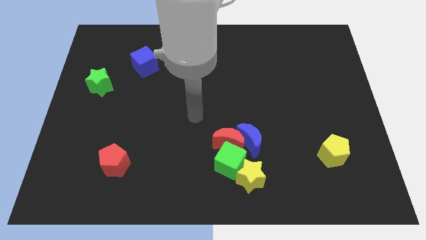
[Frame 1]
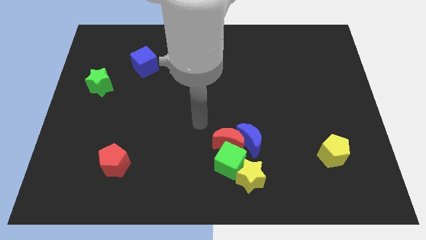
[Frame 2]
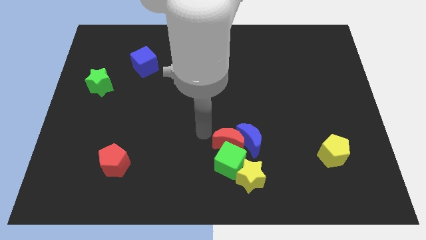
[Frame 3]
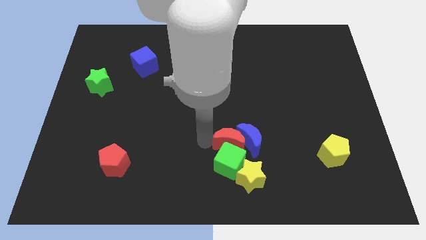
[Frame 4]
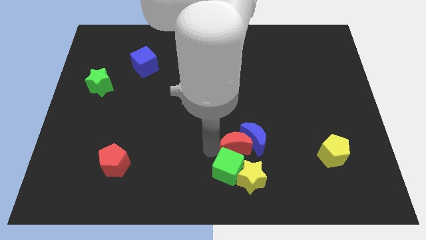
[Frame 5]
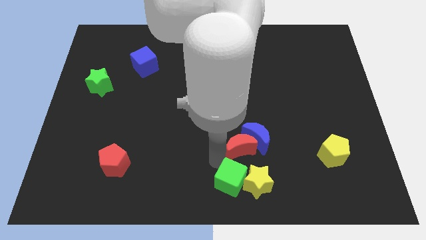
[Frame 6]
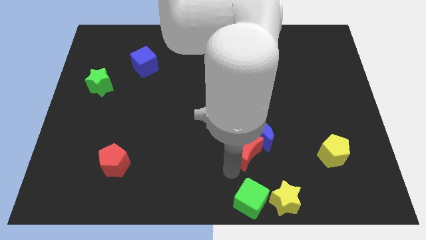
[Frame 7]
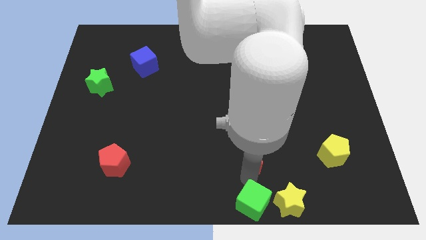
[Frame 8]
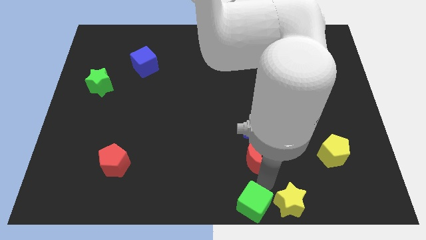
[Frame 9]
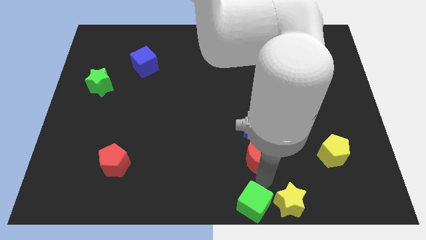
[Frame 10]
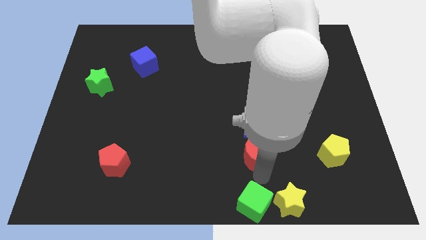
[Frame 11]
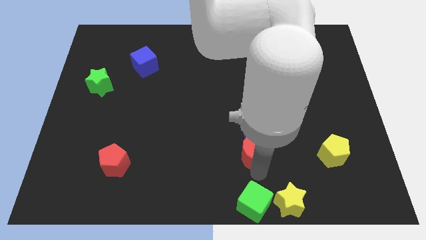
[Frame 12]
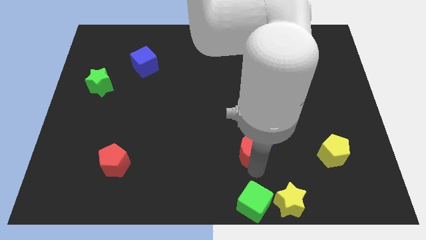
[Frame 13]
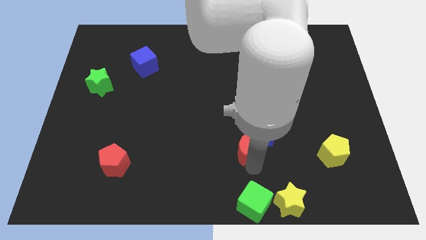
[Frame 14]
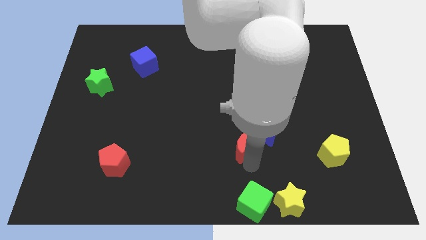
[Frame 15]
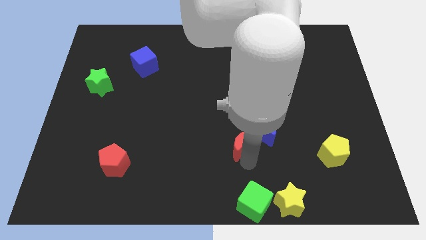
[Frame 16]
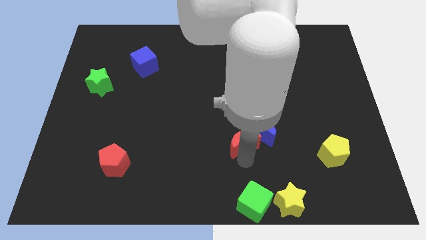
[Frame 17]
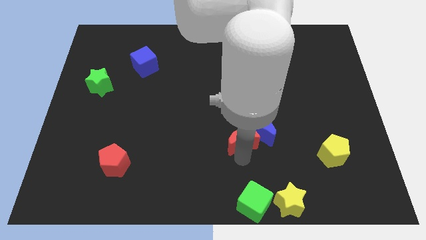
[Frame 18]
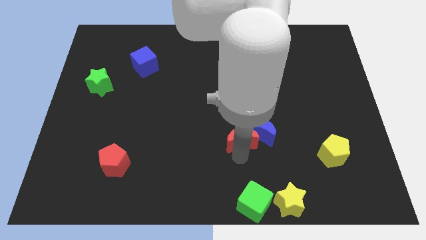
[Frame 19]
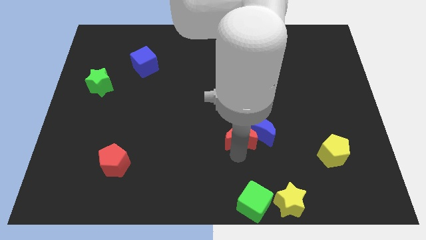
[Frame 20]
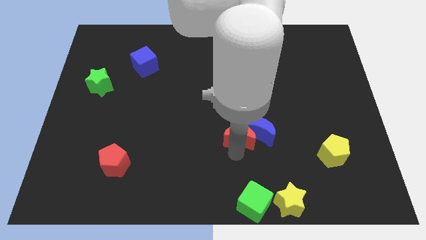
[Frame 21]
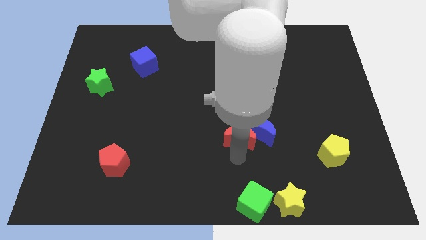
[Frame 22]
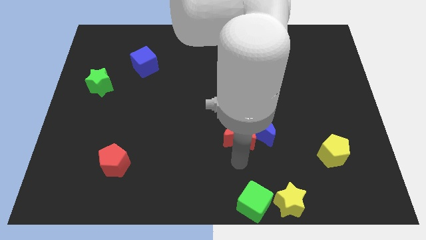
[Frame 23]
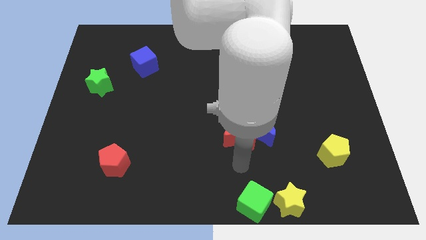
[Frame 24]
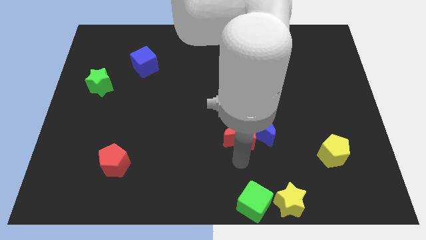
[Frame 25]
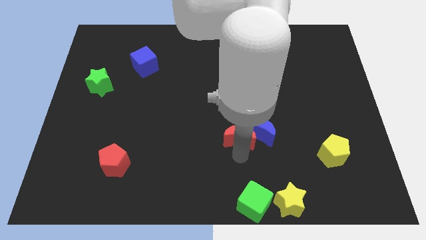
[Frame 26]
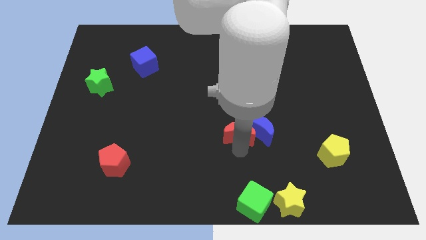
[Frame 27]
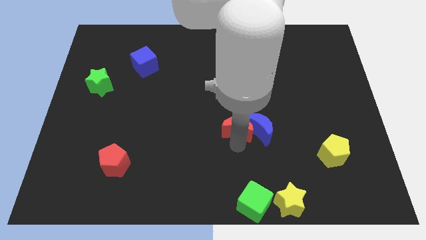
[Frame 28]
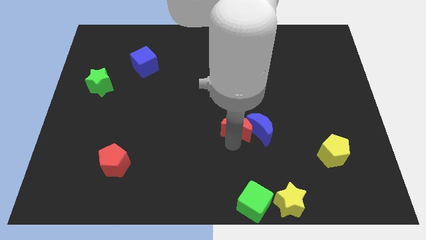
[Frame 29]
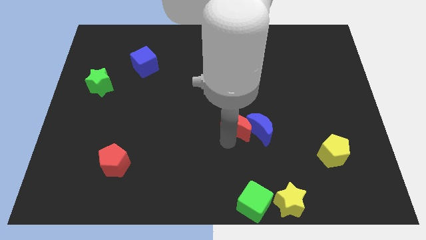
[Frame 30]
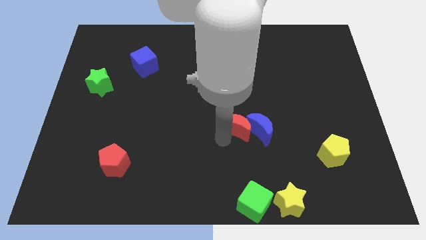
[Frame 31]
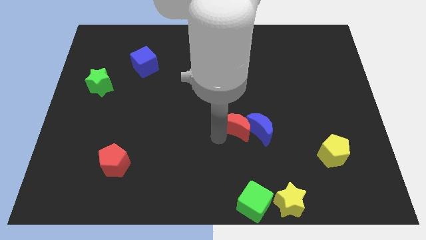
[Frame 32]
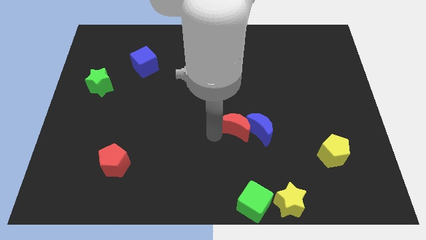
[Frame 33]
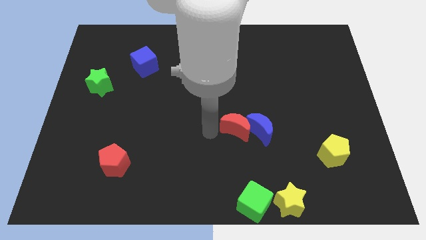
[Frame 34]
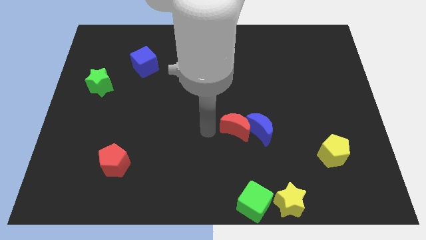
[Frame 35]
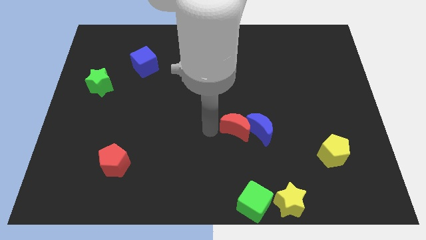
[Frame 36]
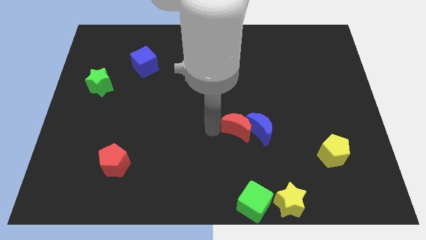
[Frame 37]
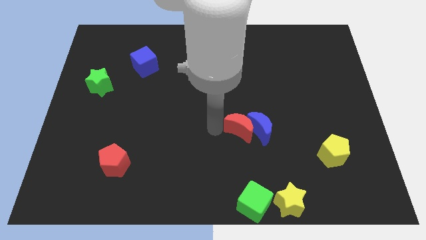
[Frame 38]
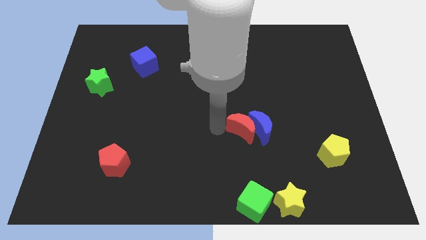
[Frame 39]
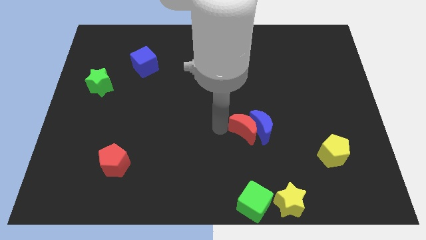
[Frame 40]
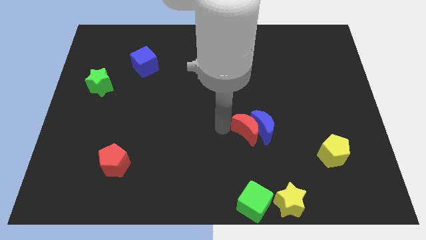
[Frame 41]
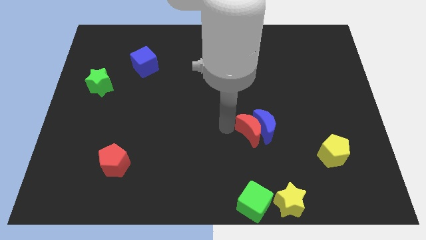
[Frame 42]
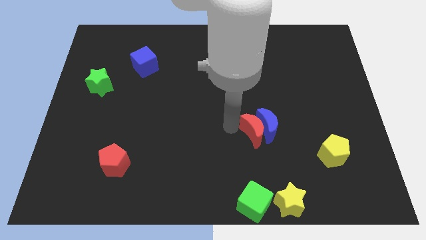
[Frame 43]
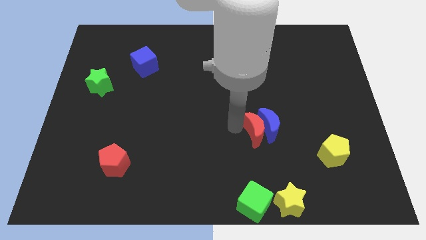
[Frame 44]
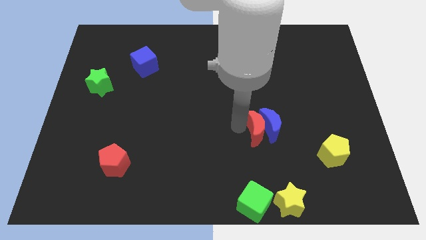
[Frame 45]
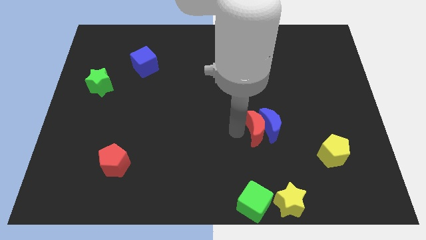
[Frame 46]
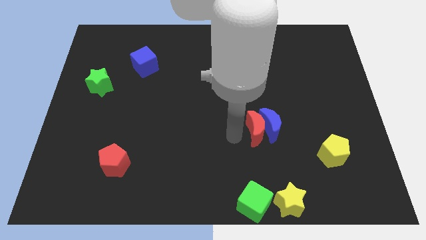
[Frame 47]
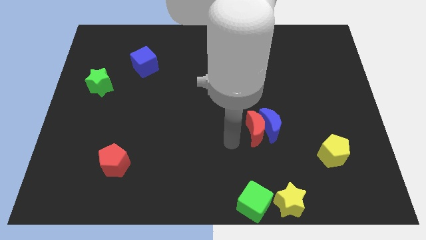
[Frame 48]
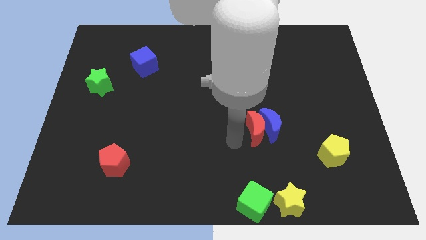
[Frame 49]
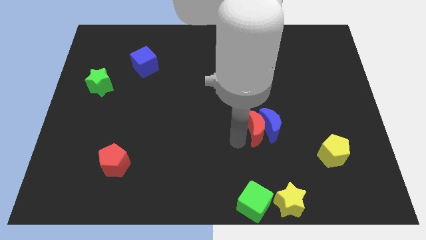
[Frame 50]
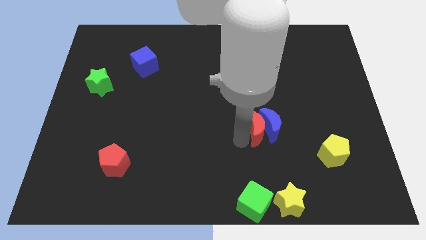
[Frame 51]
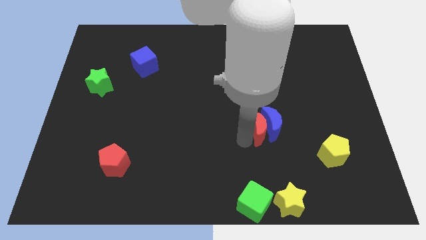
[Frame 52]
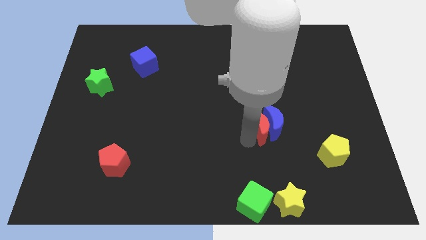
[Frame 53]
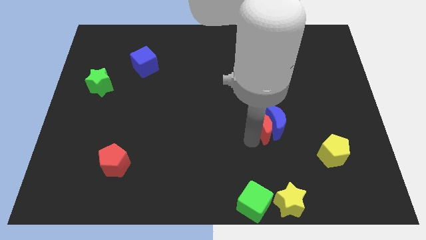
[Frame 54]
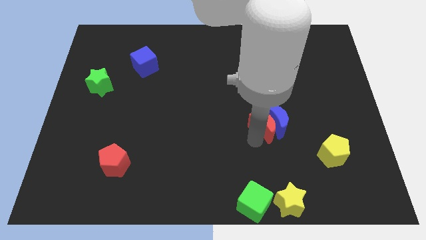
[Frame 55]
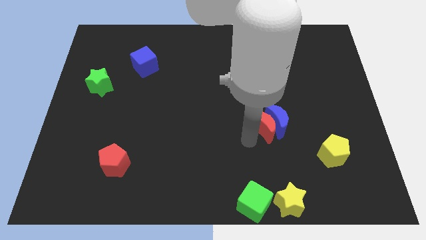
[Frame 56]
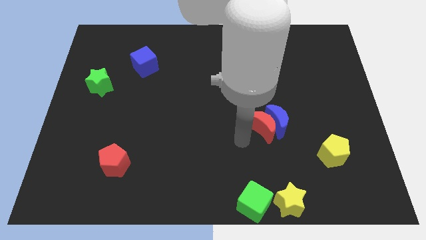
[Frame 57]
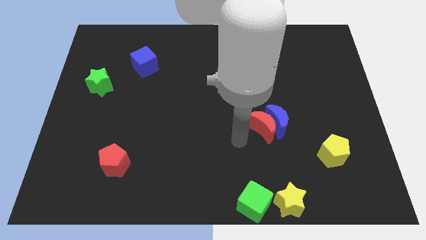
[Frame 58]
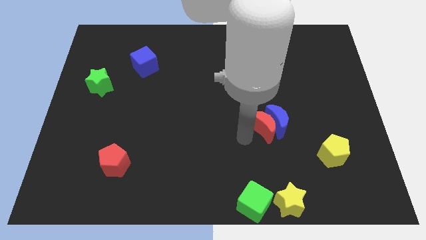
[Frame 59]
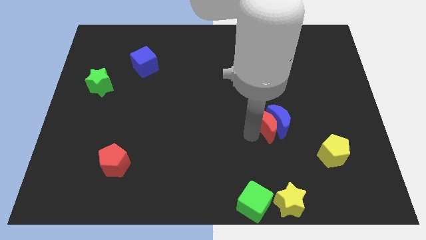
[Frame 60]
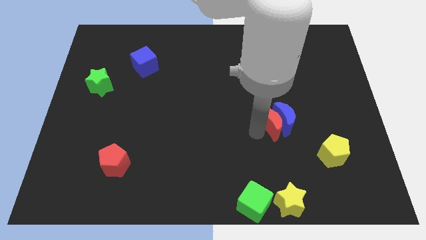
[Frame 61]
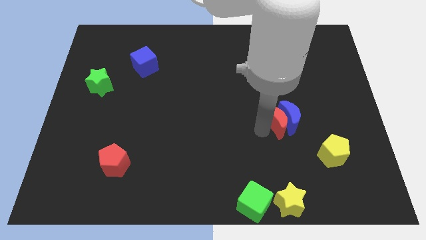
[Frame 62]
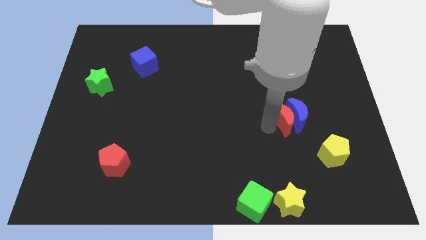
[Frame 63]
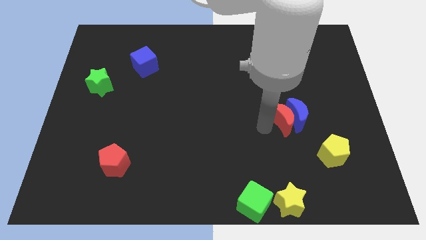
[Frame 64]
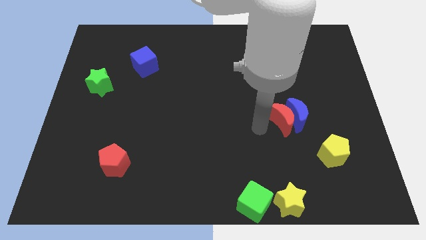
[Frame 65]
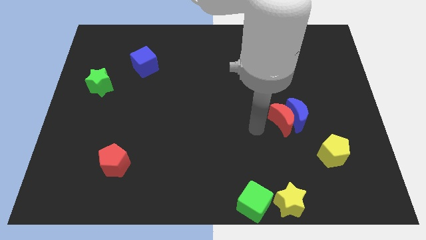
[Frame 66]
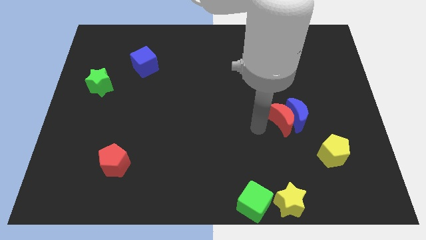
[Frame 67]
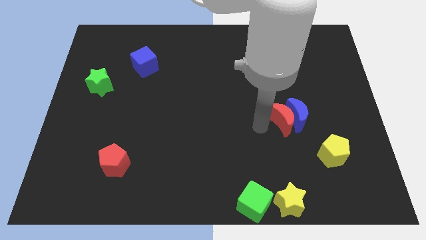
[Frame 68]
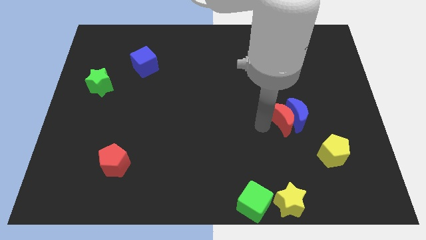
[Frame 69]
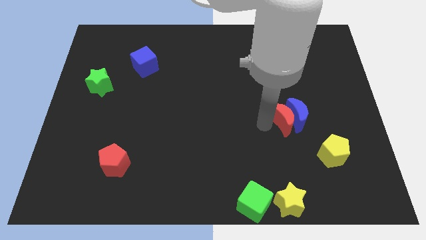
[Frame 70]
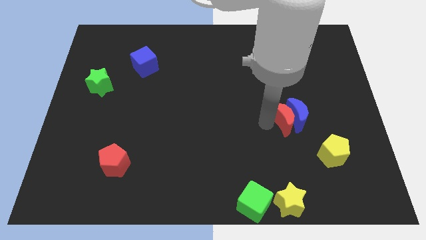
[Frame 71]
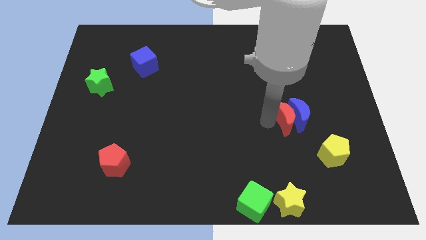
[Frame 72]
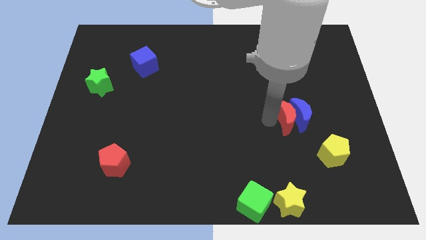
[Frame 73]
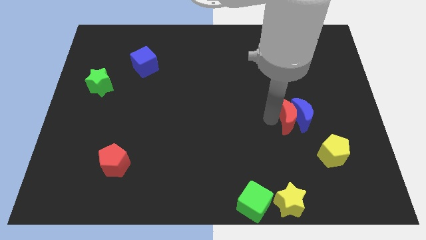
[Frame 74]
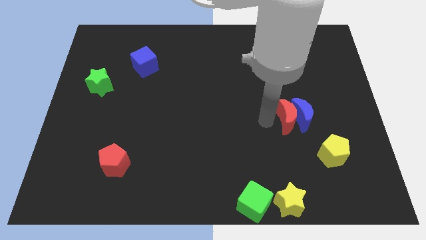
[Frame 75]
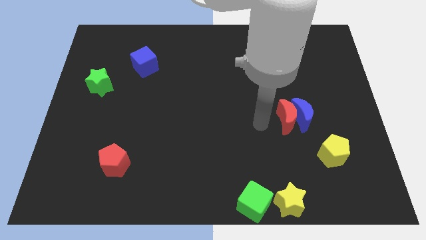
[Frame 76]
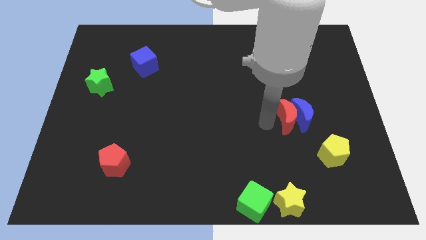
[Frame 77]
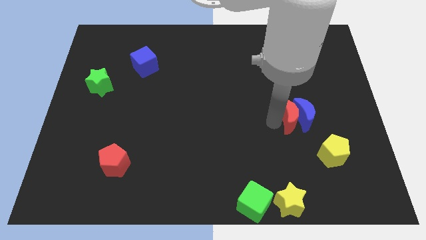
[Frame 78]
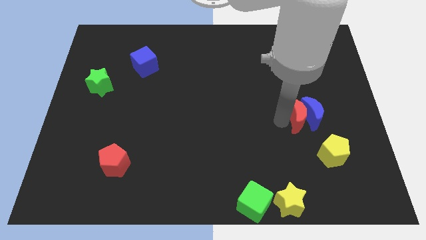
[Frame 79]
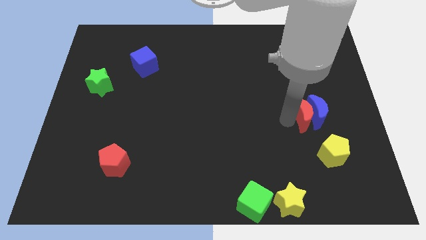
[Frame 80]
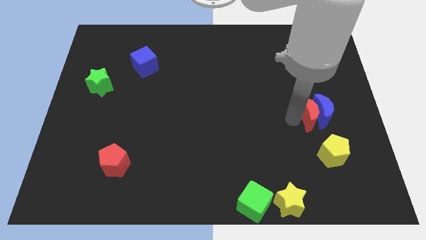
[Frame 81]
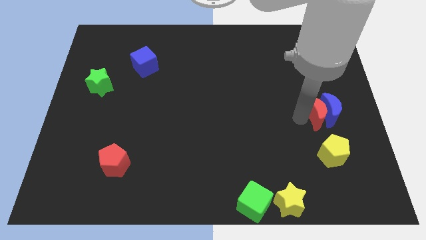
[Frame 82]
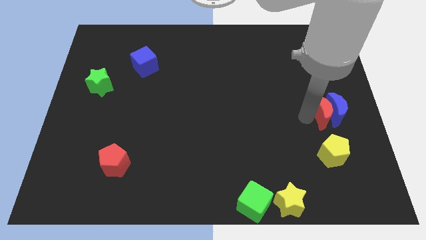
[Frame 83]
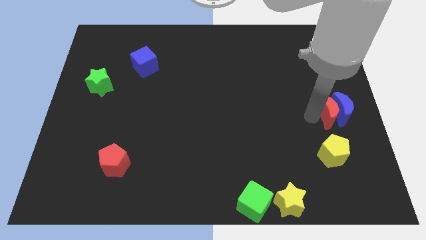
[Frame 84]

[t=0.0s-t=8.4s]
slide the red moon to the center right
